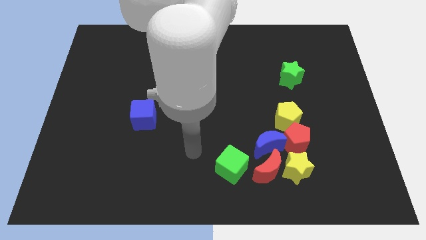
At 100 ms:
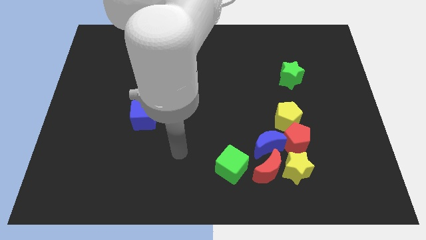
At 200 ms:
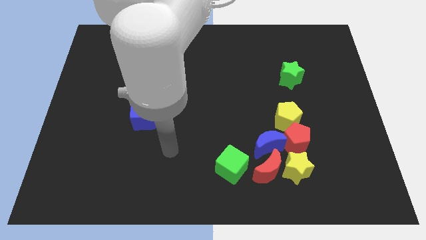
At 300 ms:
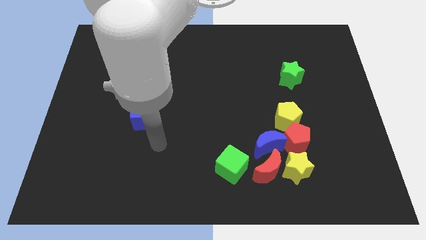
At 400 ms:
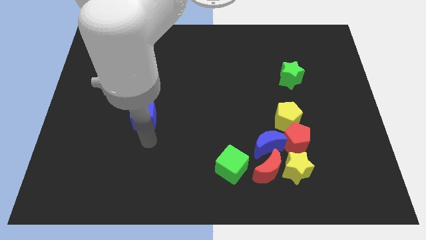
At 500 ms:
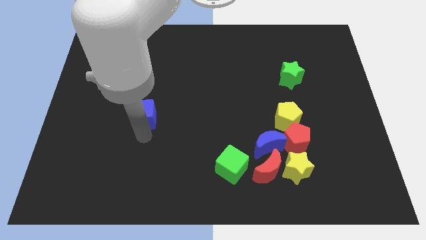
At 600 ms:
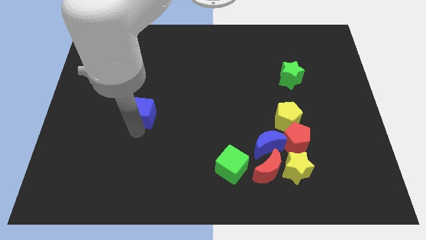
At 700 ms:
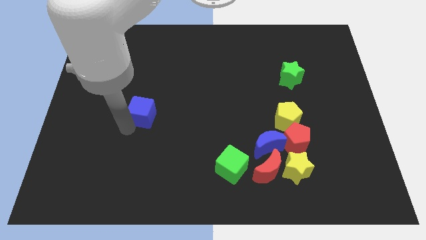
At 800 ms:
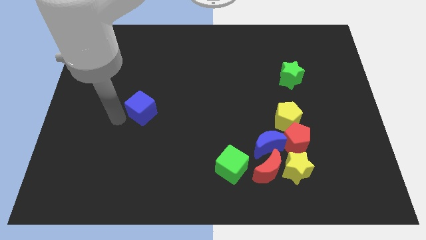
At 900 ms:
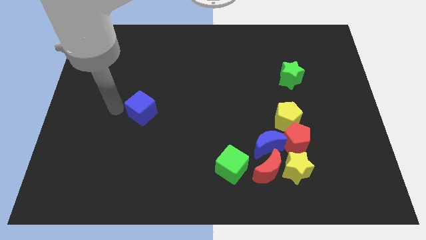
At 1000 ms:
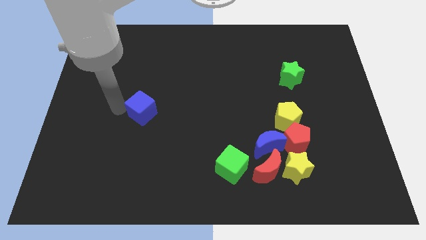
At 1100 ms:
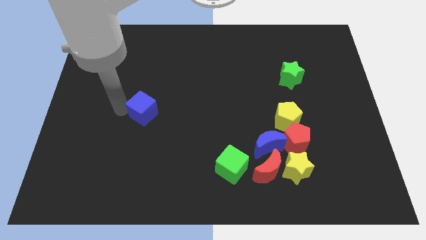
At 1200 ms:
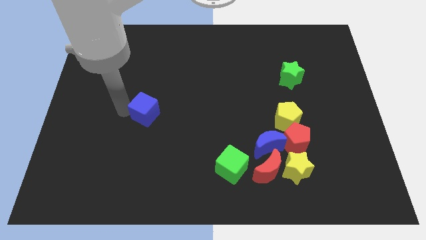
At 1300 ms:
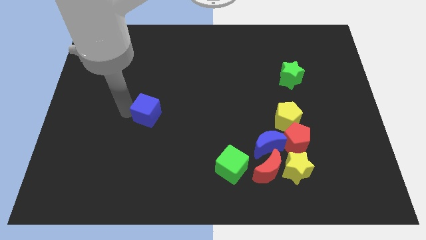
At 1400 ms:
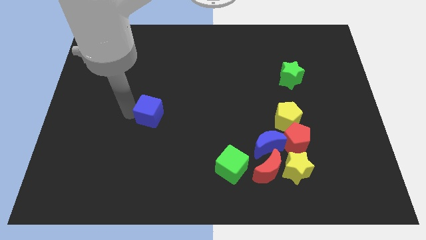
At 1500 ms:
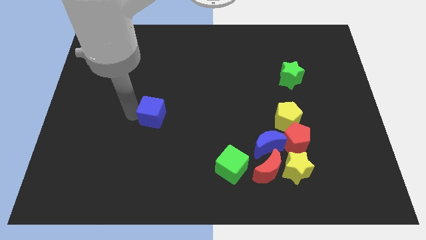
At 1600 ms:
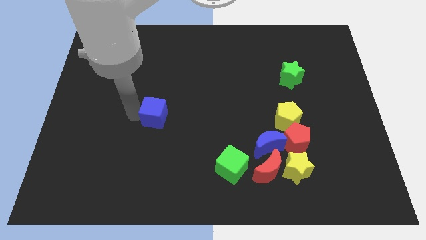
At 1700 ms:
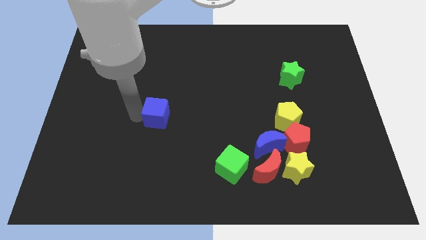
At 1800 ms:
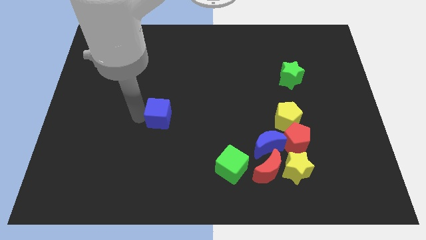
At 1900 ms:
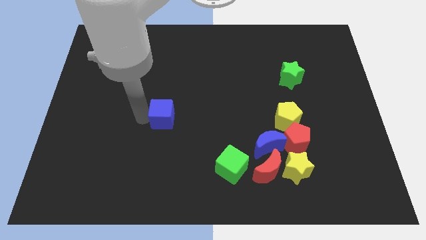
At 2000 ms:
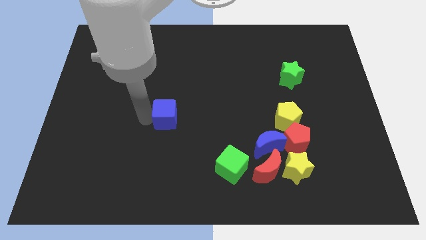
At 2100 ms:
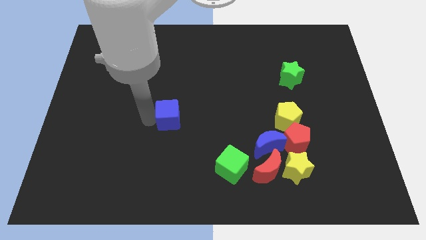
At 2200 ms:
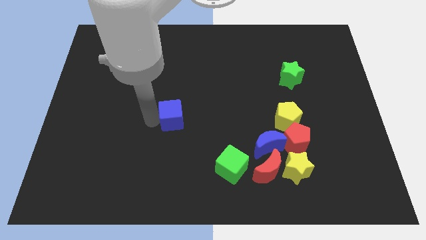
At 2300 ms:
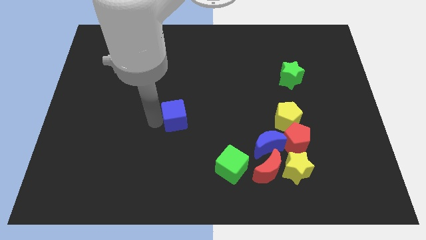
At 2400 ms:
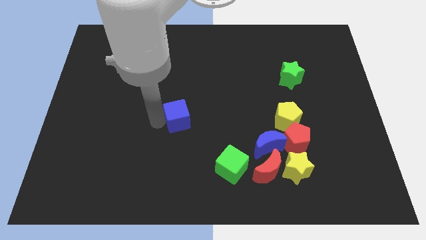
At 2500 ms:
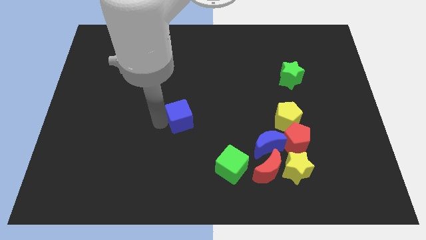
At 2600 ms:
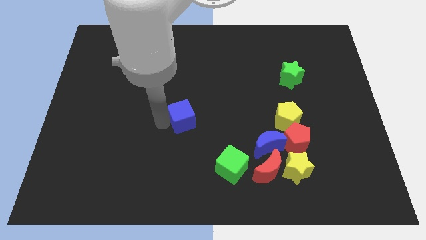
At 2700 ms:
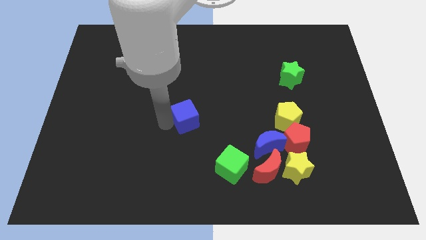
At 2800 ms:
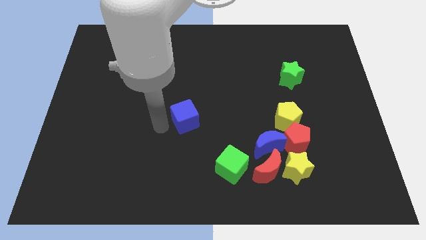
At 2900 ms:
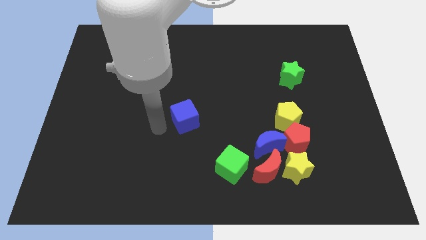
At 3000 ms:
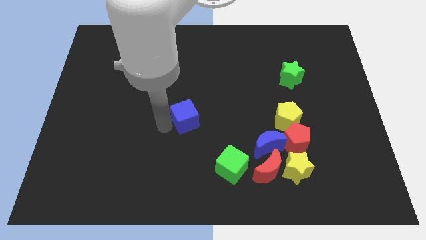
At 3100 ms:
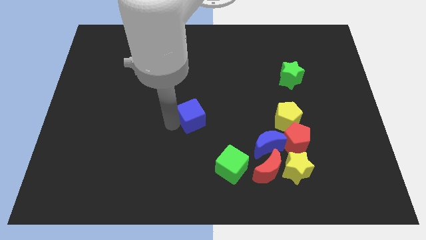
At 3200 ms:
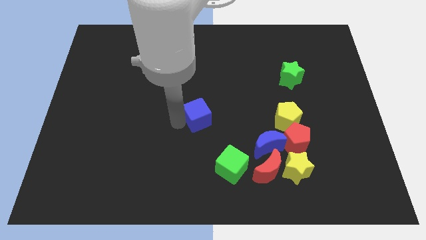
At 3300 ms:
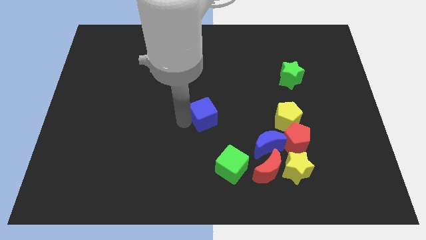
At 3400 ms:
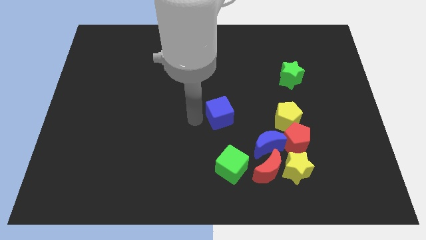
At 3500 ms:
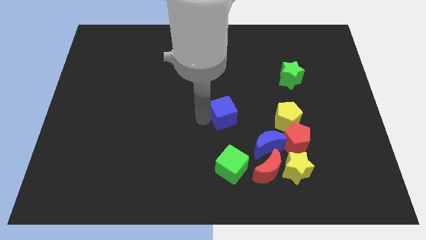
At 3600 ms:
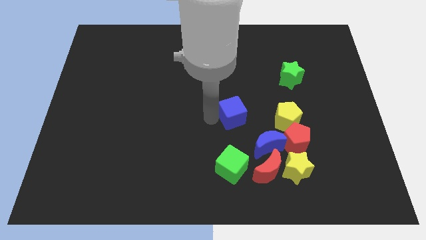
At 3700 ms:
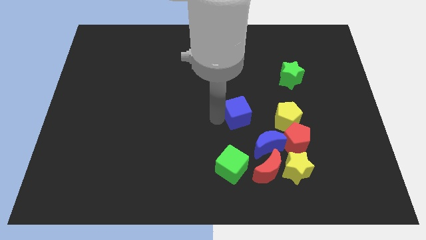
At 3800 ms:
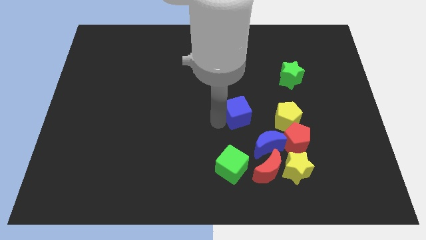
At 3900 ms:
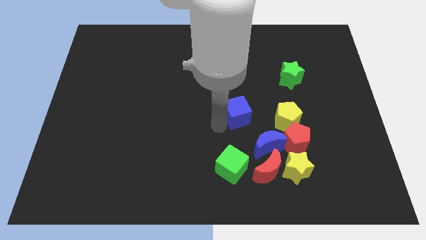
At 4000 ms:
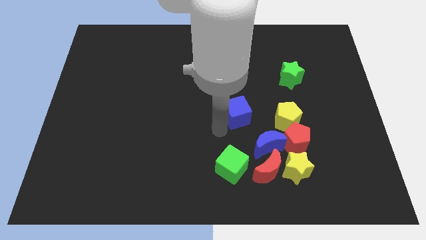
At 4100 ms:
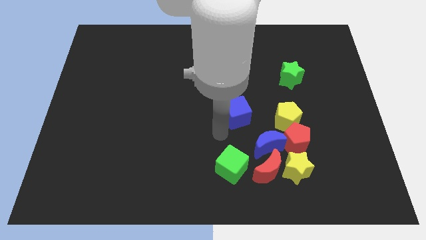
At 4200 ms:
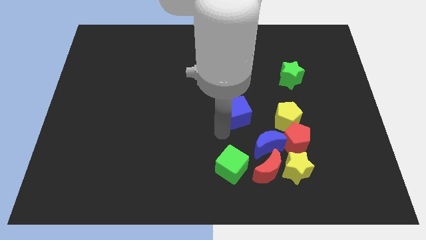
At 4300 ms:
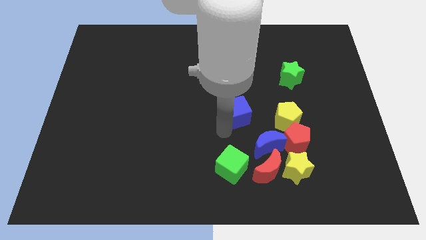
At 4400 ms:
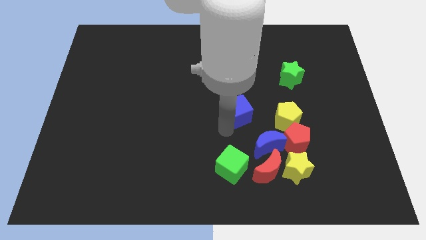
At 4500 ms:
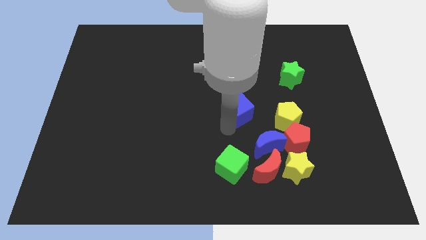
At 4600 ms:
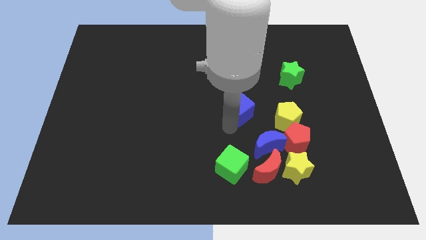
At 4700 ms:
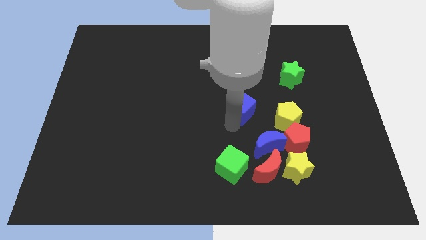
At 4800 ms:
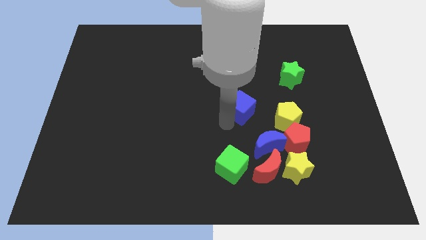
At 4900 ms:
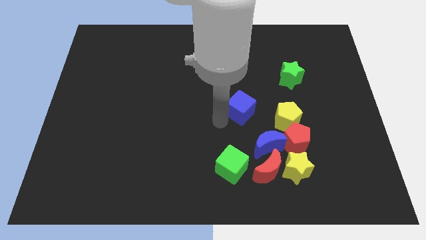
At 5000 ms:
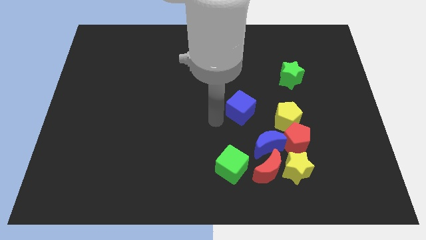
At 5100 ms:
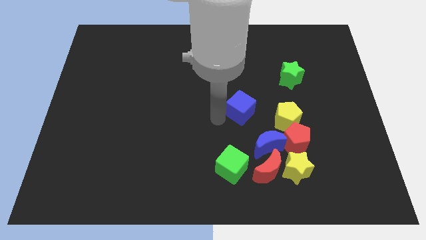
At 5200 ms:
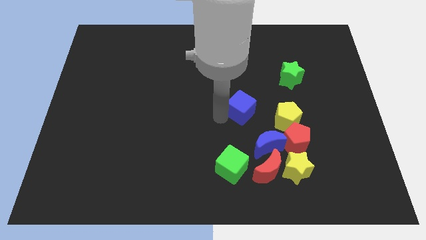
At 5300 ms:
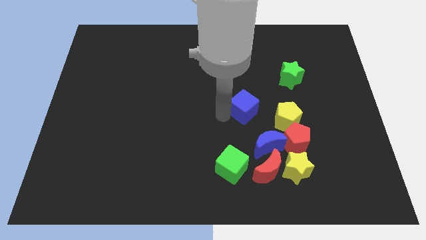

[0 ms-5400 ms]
slide the blue cube diagonally up and to the left of the yellow pentagon

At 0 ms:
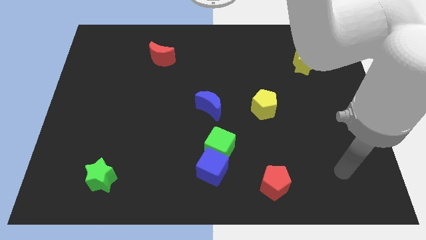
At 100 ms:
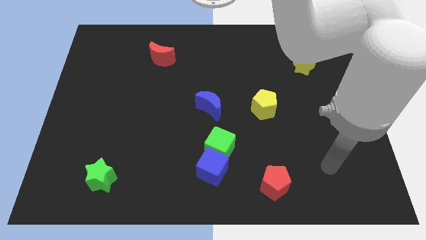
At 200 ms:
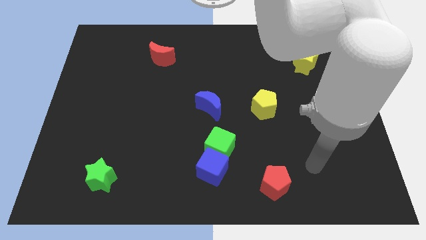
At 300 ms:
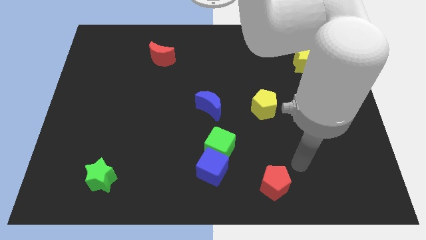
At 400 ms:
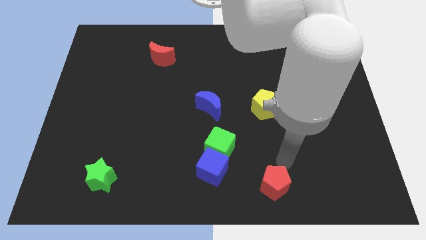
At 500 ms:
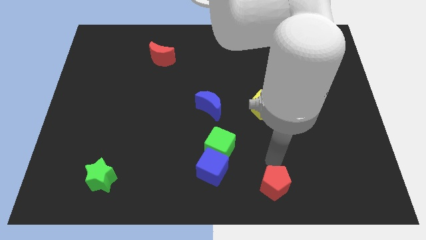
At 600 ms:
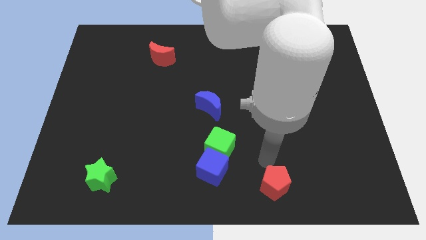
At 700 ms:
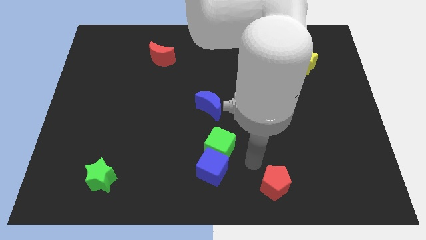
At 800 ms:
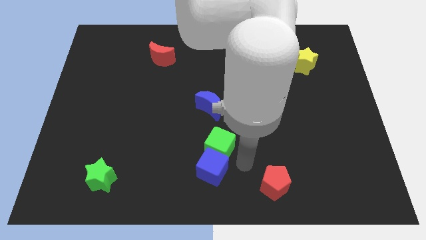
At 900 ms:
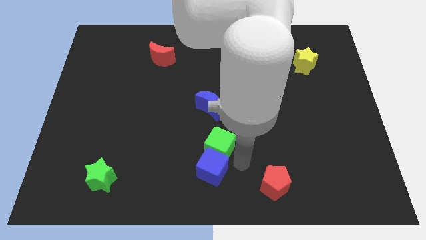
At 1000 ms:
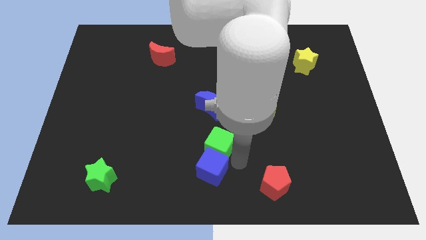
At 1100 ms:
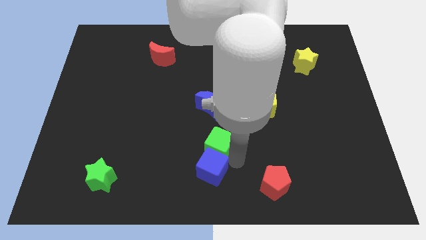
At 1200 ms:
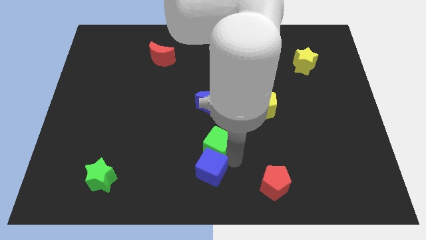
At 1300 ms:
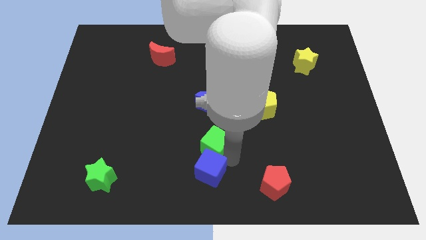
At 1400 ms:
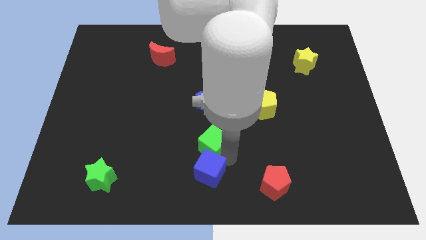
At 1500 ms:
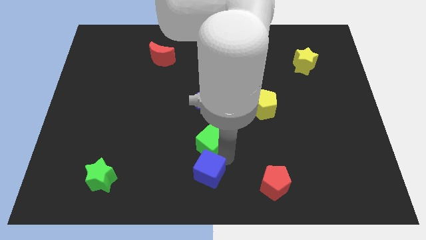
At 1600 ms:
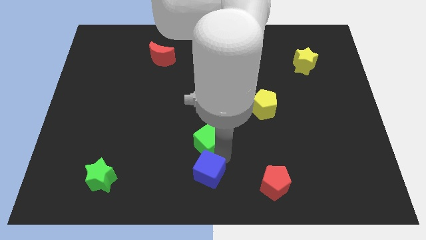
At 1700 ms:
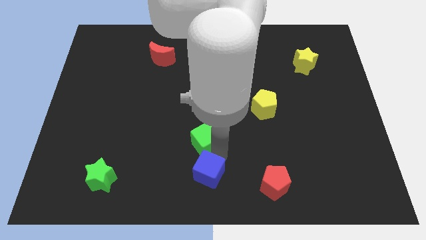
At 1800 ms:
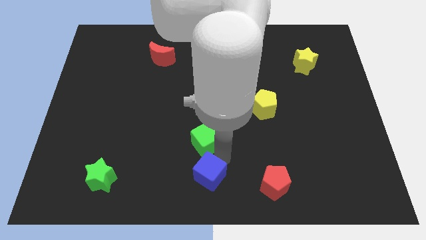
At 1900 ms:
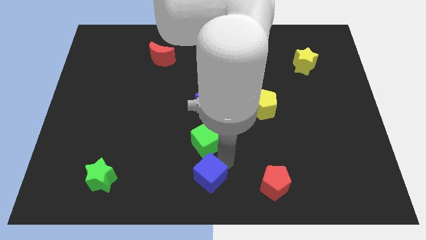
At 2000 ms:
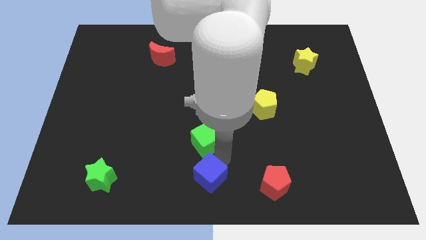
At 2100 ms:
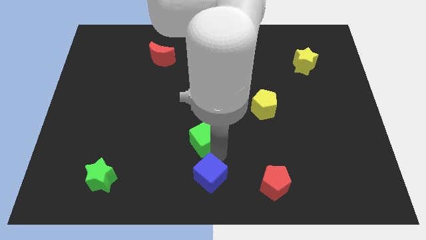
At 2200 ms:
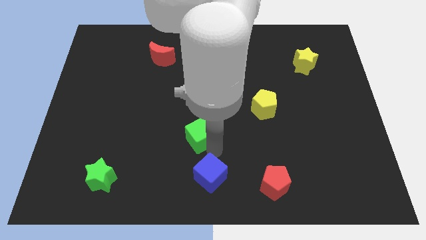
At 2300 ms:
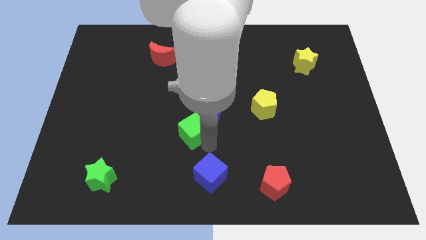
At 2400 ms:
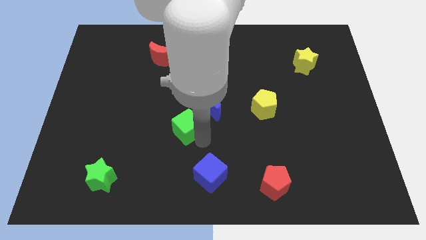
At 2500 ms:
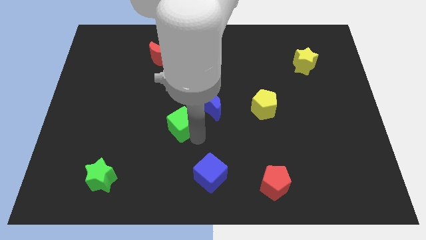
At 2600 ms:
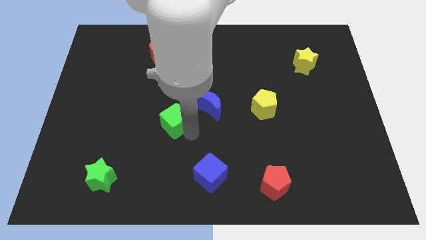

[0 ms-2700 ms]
slide the green cube to the left side of the blue moon

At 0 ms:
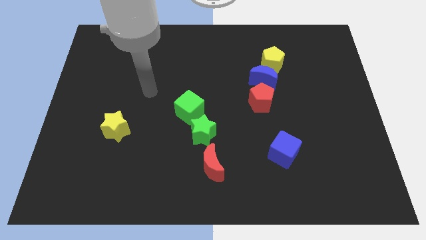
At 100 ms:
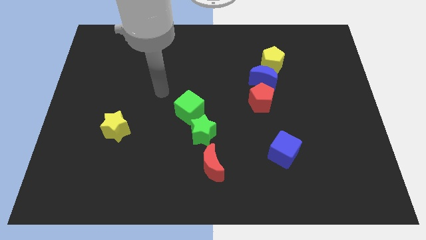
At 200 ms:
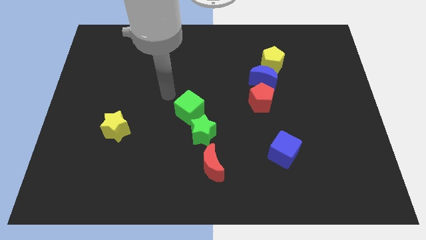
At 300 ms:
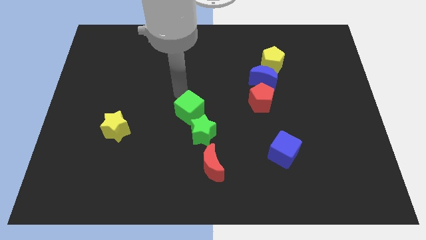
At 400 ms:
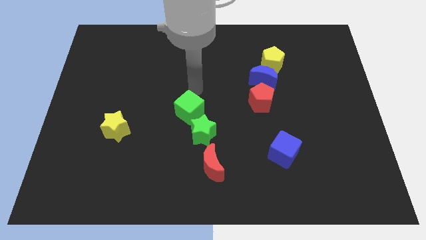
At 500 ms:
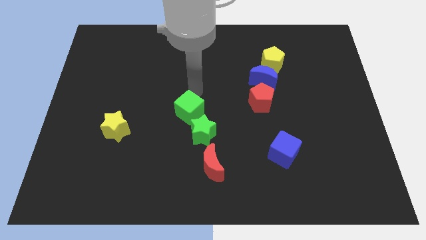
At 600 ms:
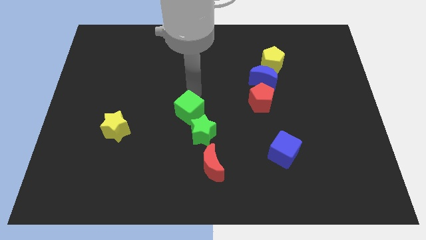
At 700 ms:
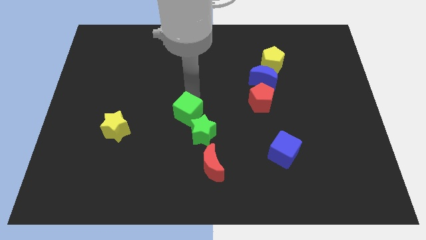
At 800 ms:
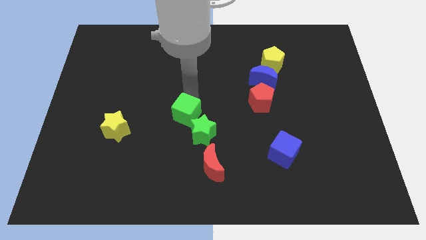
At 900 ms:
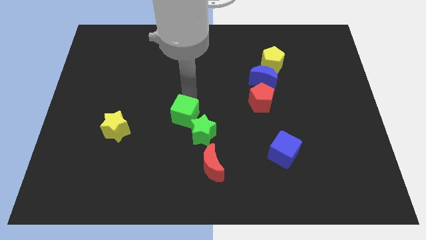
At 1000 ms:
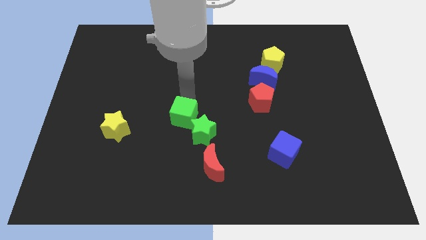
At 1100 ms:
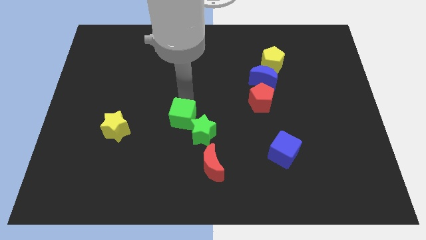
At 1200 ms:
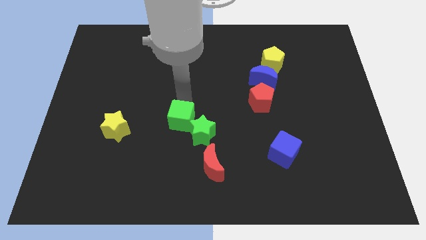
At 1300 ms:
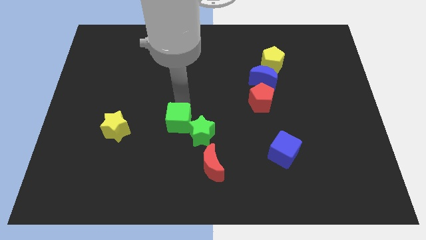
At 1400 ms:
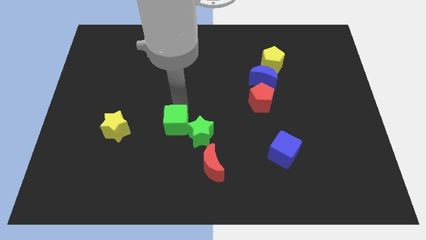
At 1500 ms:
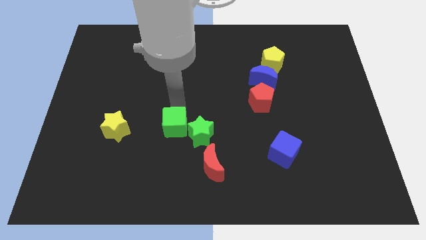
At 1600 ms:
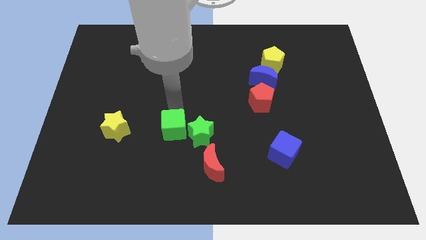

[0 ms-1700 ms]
slide the green cube to the top left side of the red moon
